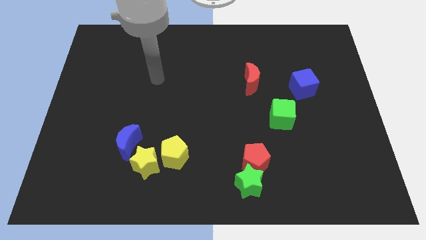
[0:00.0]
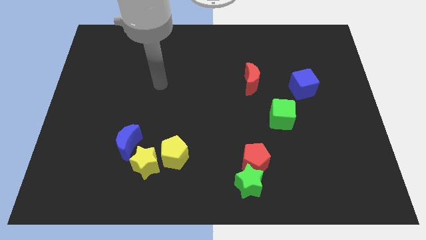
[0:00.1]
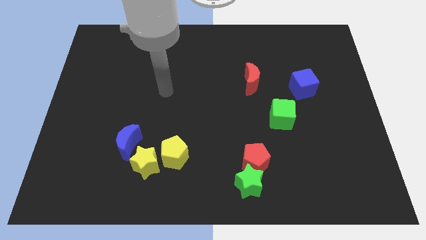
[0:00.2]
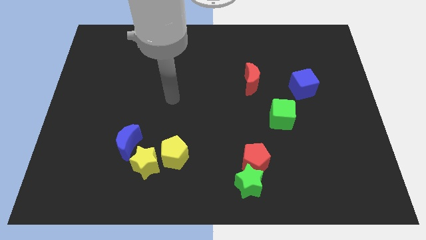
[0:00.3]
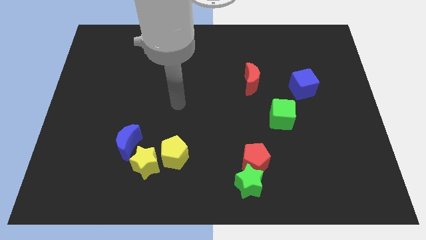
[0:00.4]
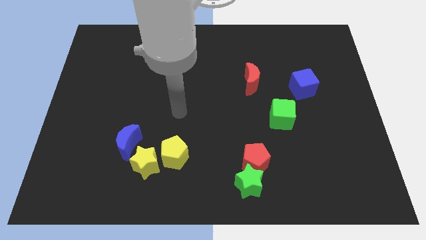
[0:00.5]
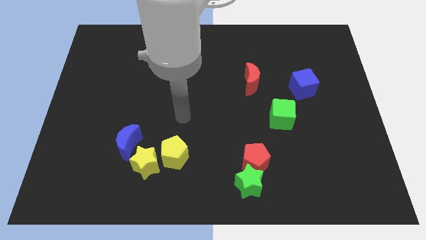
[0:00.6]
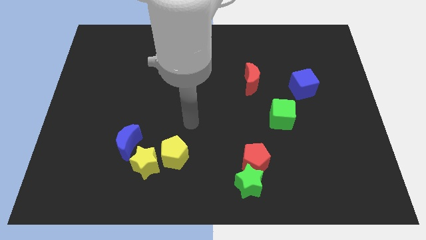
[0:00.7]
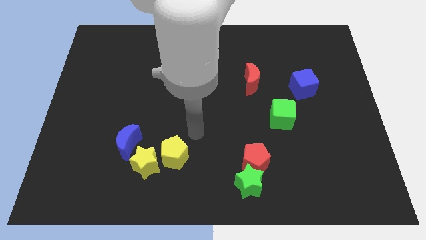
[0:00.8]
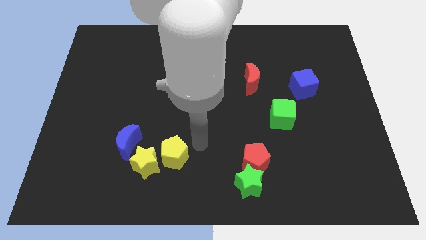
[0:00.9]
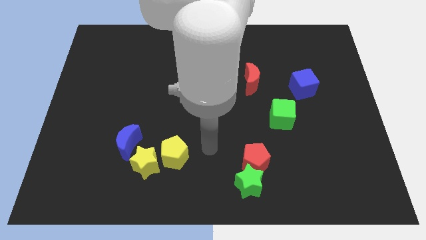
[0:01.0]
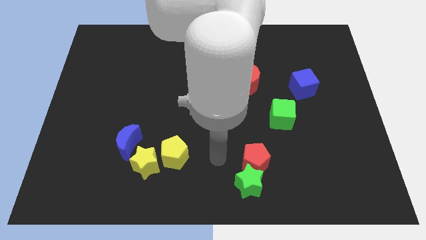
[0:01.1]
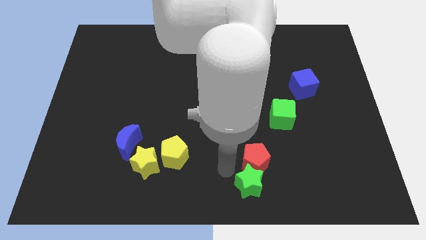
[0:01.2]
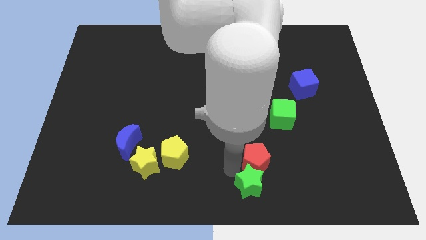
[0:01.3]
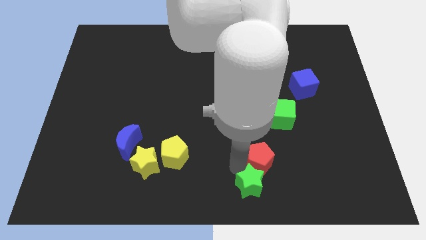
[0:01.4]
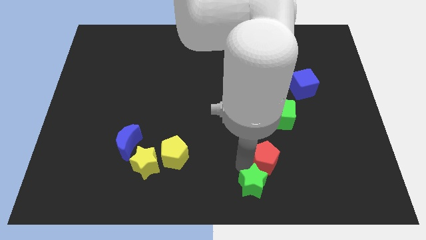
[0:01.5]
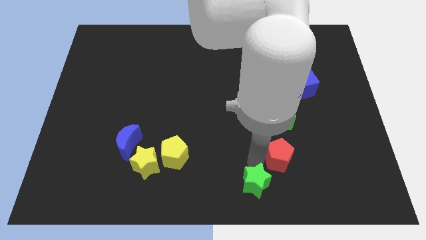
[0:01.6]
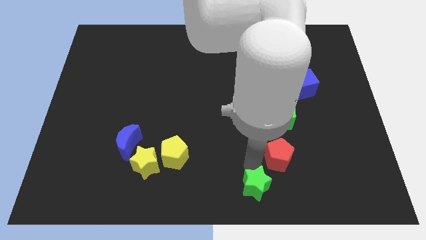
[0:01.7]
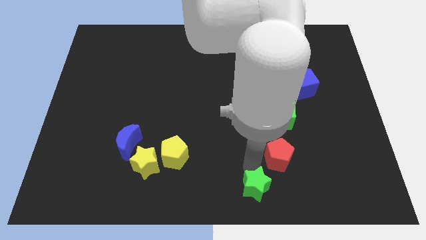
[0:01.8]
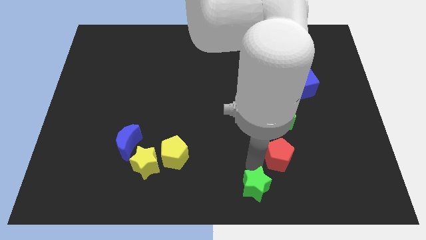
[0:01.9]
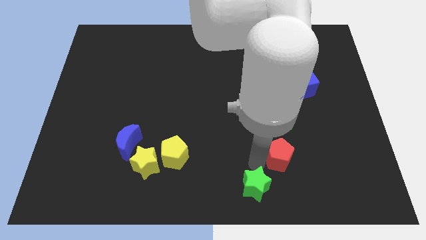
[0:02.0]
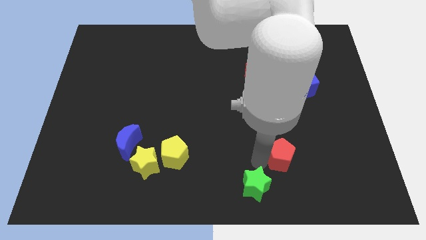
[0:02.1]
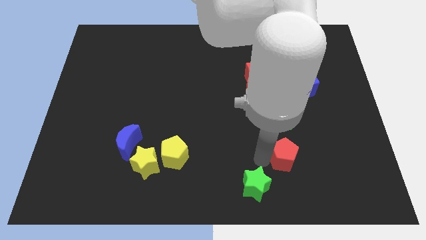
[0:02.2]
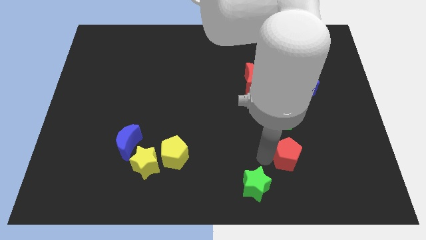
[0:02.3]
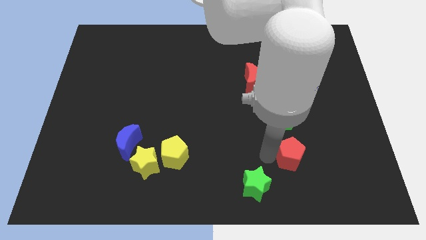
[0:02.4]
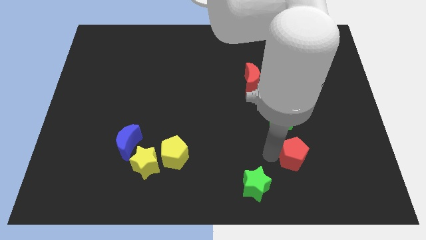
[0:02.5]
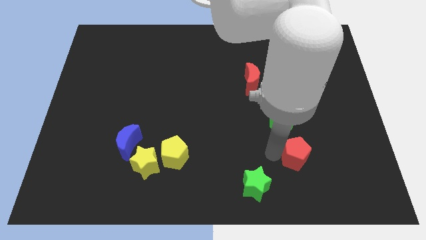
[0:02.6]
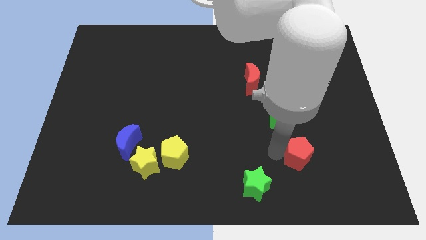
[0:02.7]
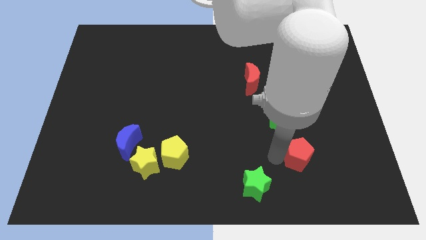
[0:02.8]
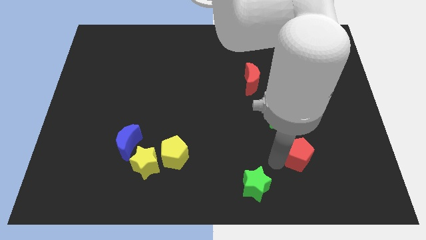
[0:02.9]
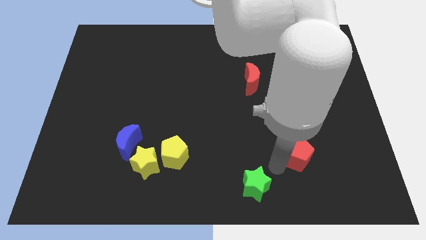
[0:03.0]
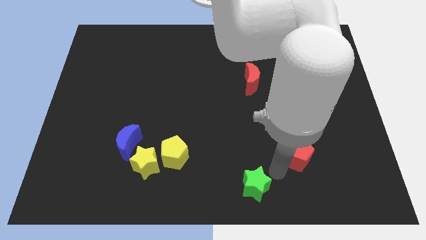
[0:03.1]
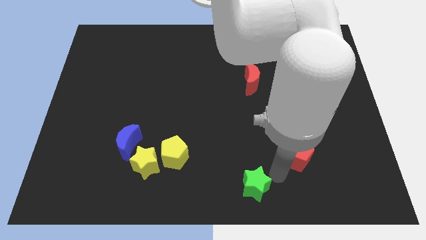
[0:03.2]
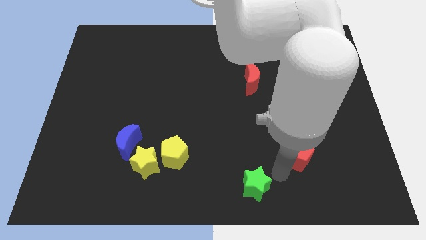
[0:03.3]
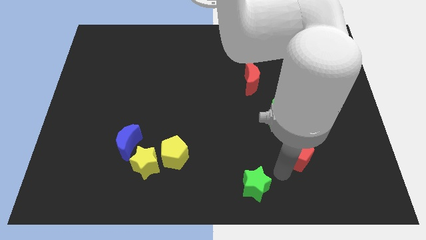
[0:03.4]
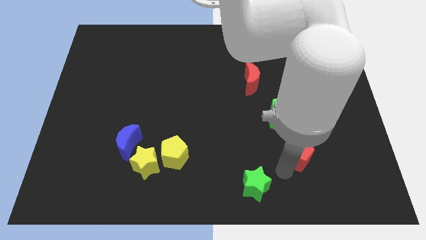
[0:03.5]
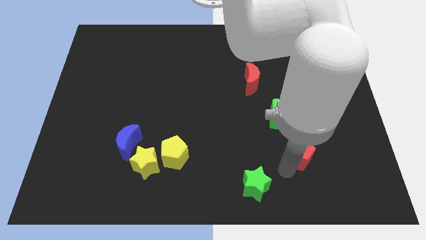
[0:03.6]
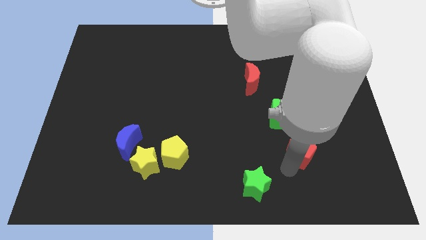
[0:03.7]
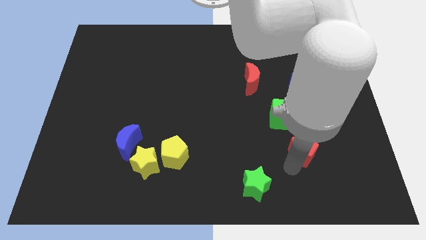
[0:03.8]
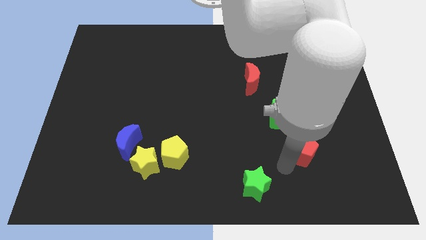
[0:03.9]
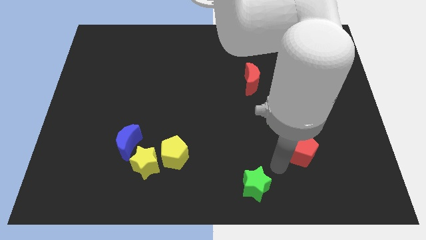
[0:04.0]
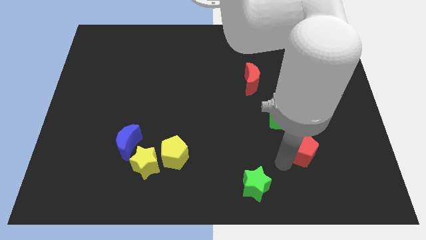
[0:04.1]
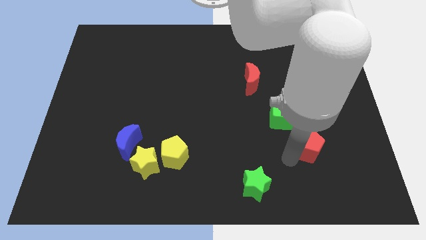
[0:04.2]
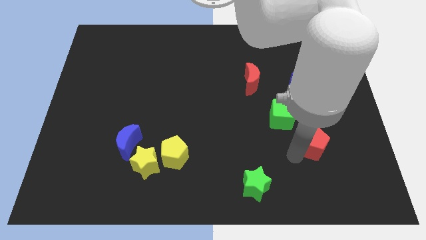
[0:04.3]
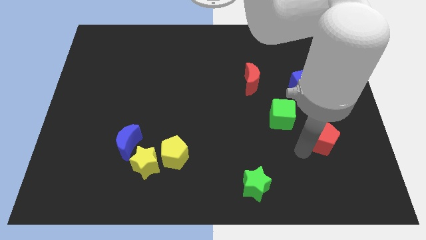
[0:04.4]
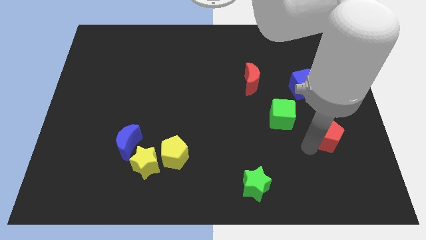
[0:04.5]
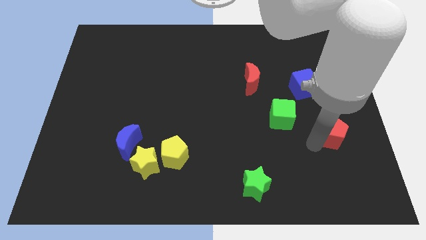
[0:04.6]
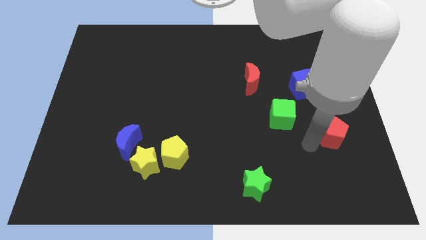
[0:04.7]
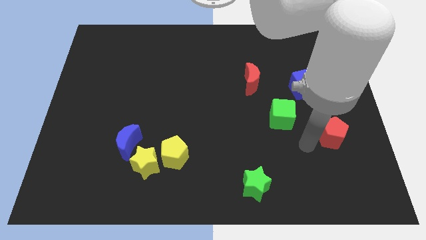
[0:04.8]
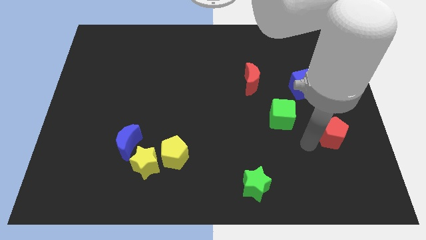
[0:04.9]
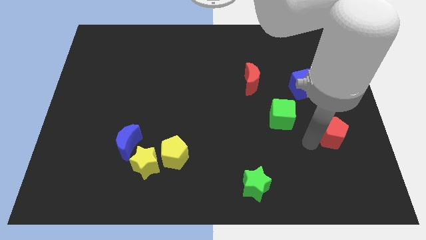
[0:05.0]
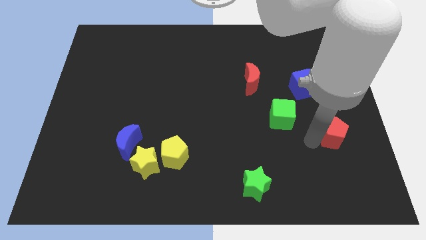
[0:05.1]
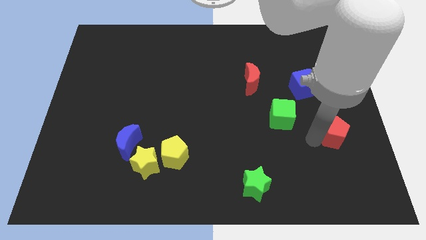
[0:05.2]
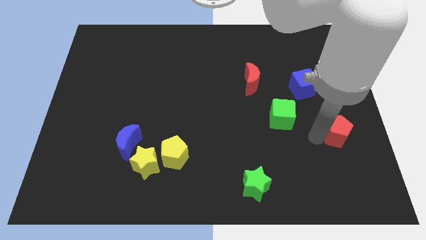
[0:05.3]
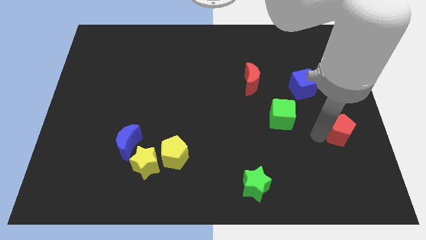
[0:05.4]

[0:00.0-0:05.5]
put the red pentagon to the center right
